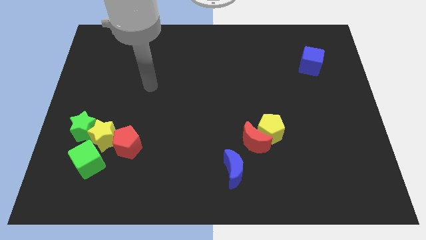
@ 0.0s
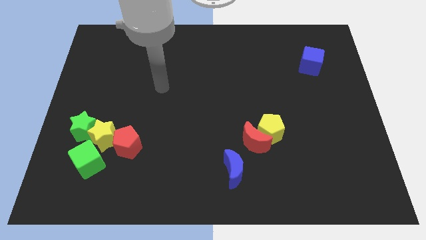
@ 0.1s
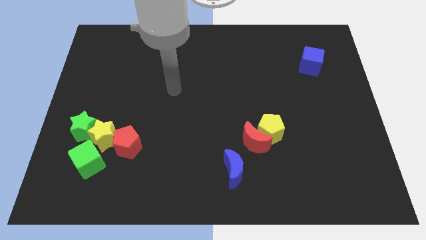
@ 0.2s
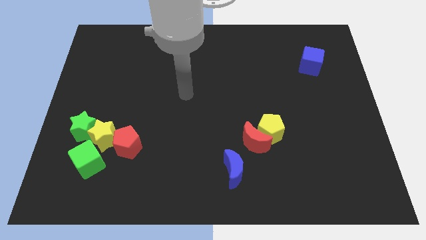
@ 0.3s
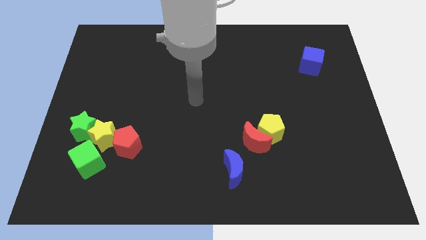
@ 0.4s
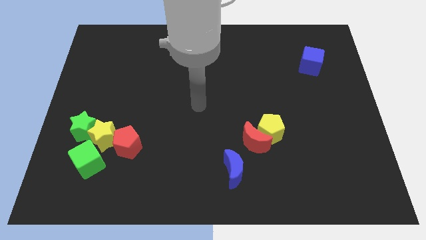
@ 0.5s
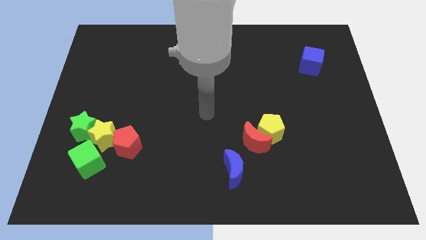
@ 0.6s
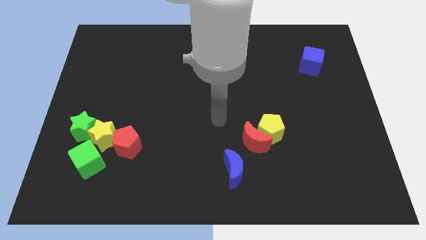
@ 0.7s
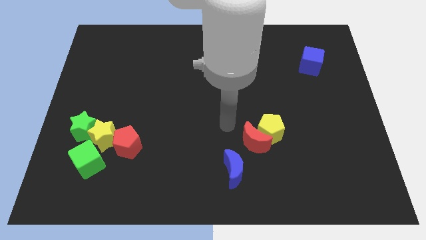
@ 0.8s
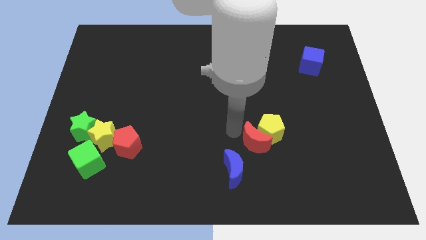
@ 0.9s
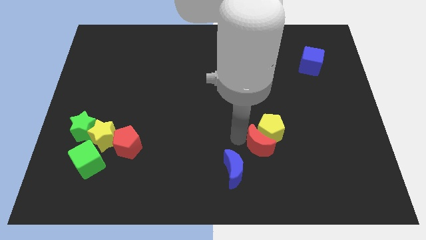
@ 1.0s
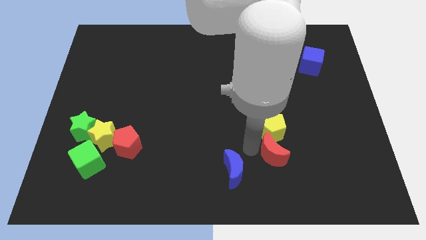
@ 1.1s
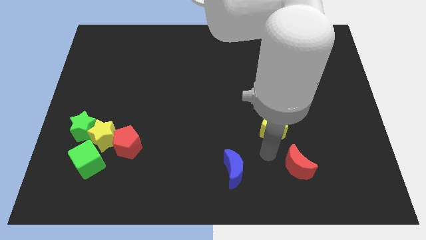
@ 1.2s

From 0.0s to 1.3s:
pull the yellow pentagon apart from the red moon

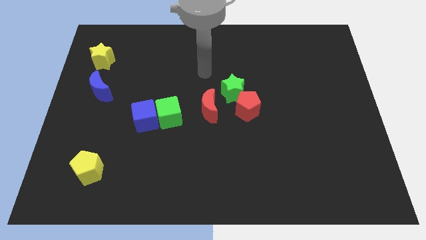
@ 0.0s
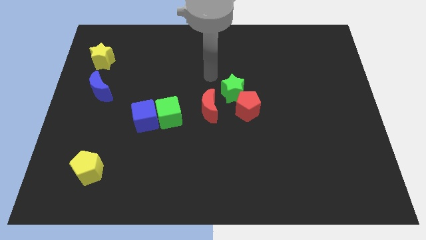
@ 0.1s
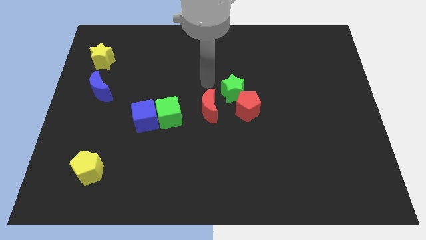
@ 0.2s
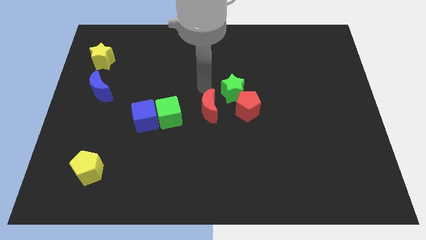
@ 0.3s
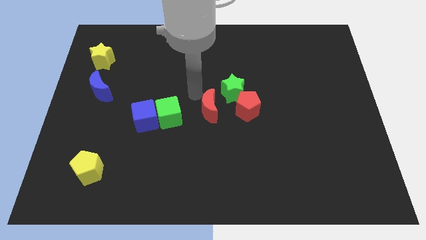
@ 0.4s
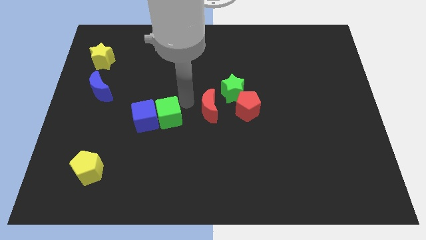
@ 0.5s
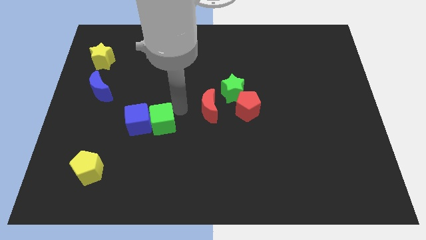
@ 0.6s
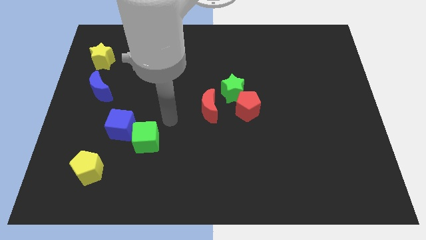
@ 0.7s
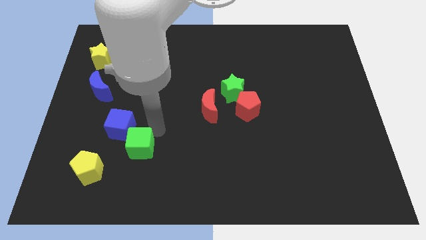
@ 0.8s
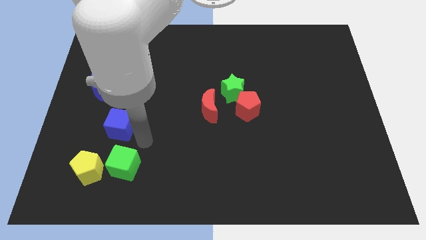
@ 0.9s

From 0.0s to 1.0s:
separate the blue cube from the green cube

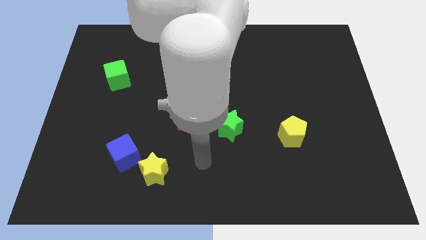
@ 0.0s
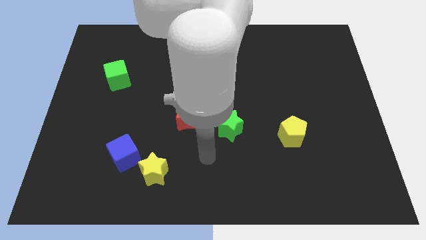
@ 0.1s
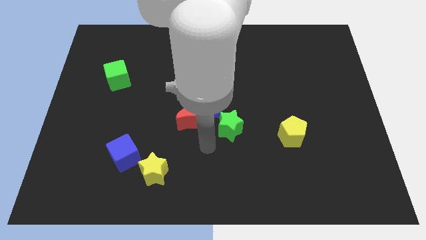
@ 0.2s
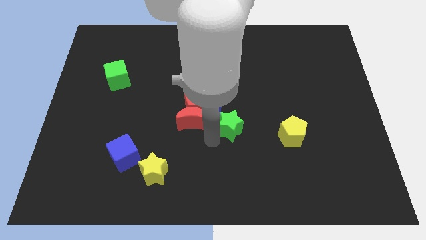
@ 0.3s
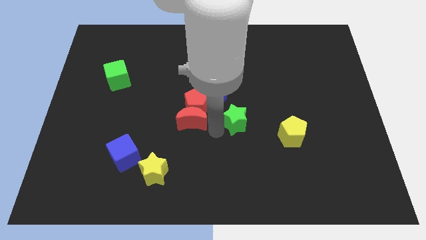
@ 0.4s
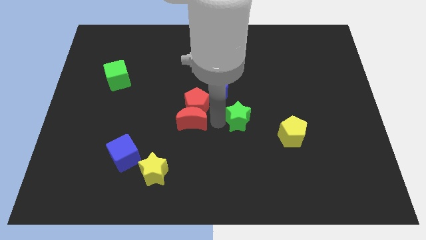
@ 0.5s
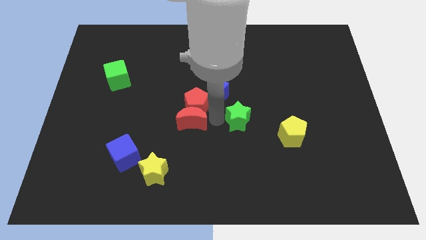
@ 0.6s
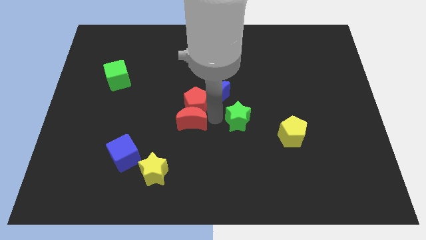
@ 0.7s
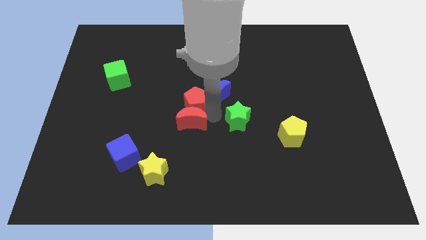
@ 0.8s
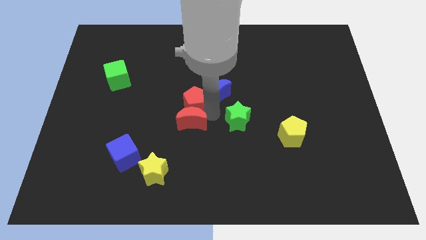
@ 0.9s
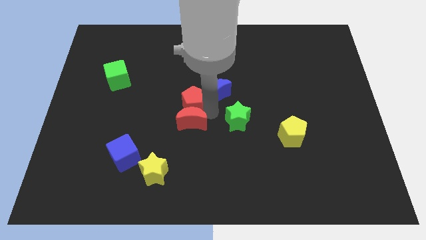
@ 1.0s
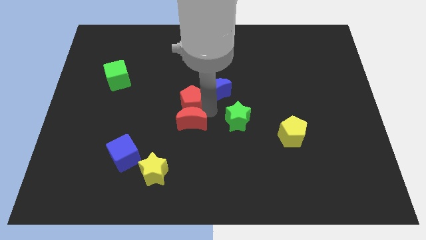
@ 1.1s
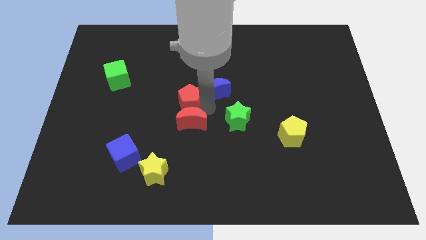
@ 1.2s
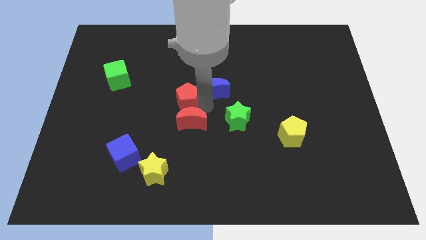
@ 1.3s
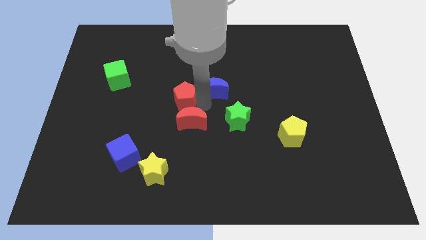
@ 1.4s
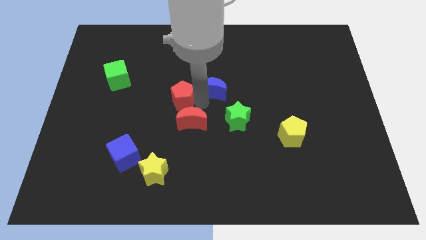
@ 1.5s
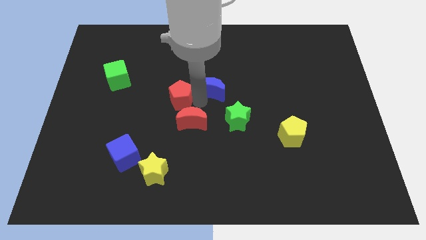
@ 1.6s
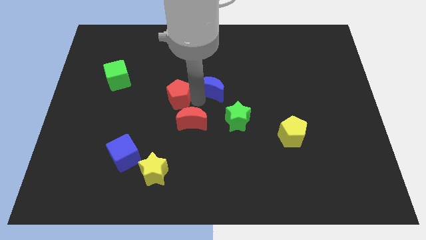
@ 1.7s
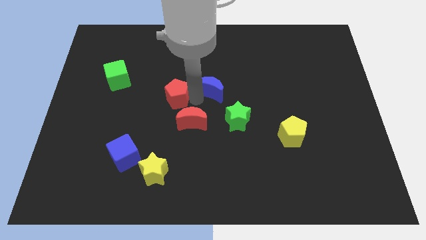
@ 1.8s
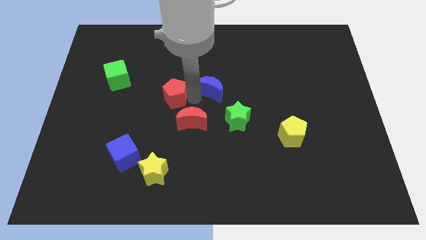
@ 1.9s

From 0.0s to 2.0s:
separate the red pentagon from the group of blocks

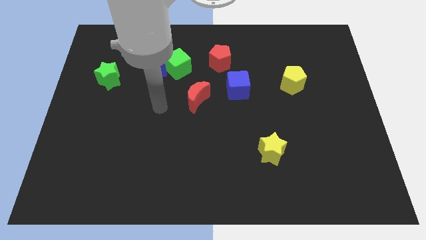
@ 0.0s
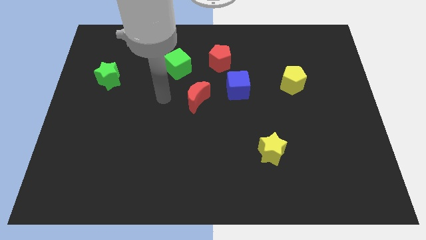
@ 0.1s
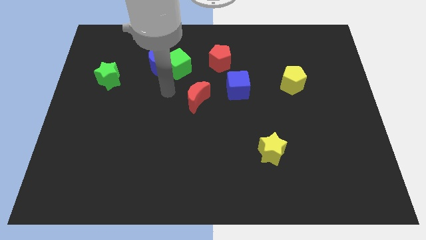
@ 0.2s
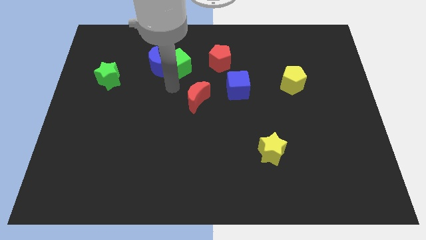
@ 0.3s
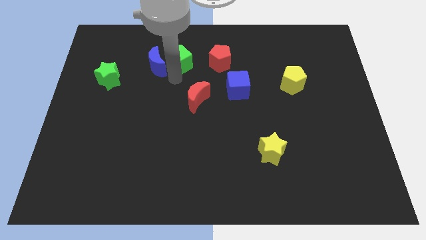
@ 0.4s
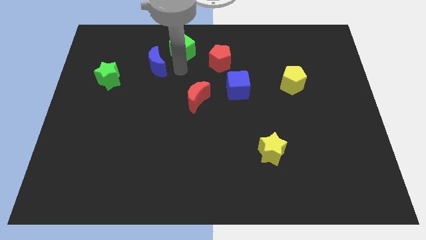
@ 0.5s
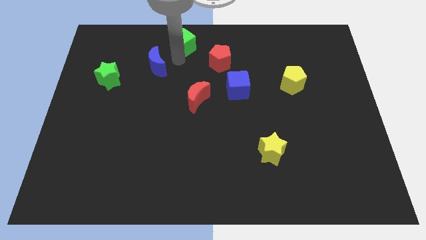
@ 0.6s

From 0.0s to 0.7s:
separate the blue moon from the green cube

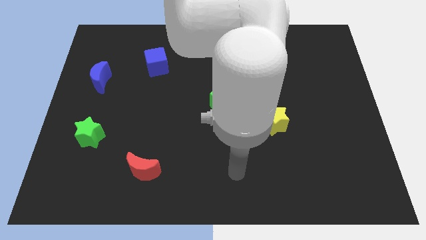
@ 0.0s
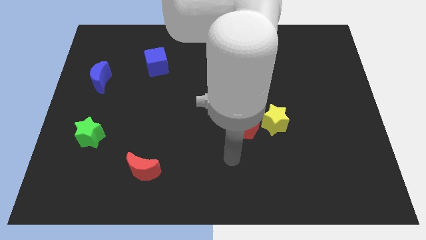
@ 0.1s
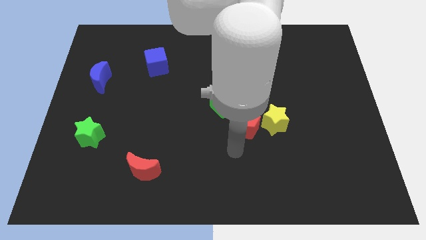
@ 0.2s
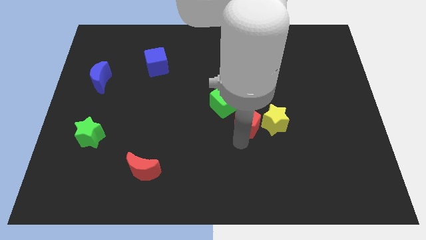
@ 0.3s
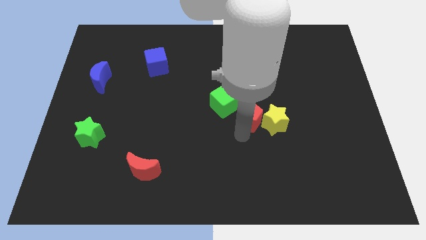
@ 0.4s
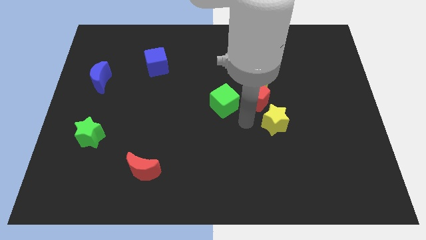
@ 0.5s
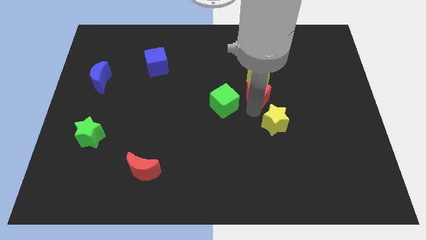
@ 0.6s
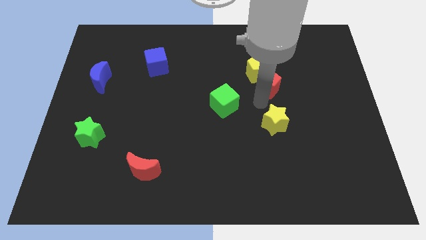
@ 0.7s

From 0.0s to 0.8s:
pull the yellow star apart from the red pentagon

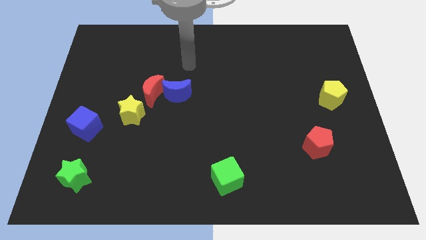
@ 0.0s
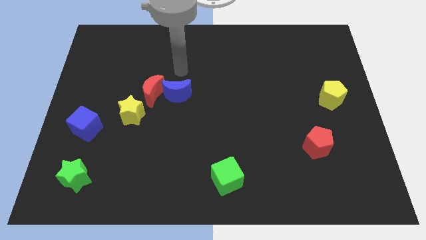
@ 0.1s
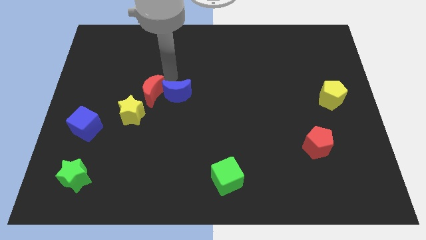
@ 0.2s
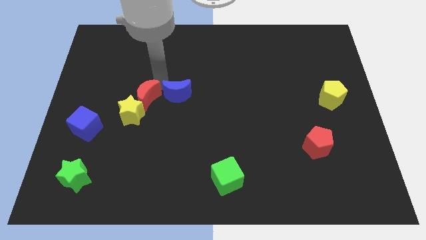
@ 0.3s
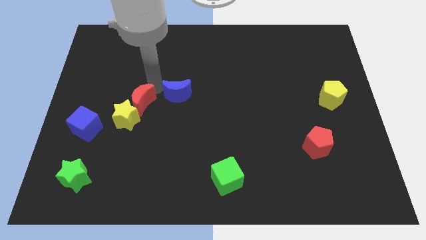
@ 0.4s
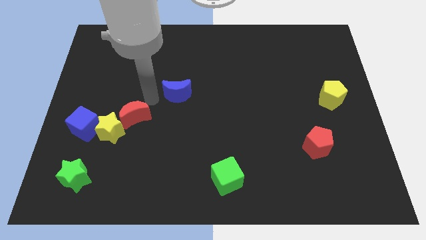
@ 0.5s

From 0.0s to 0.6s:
move the blue moon away from the red moon

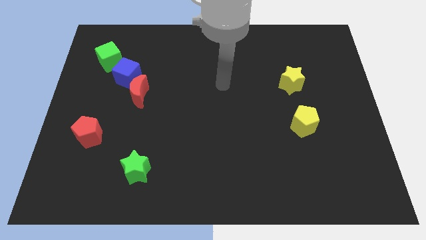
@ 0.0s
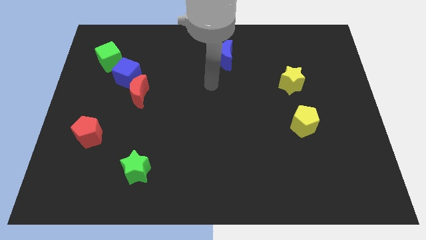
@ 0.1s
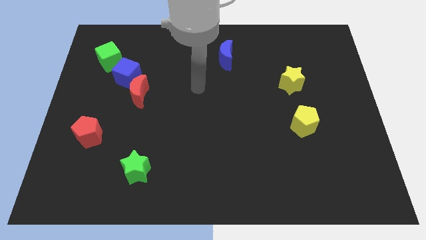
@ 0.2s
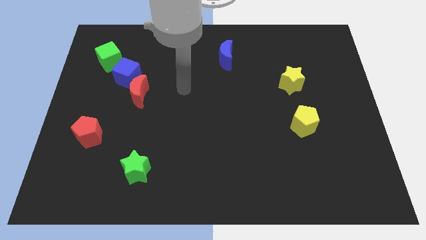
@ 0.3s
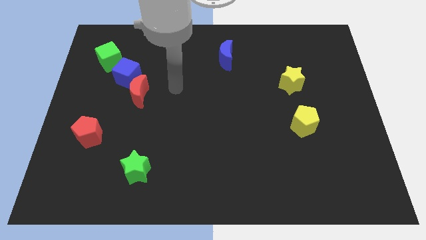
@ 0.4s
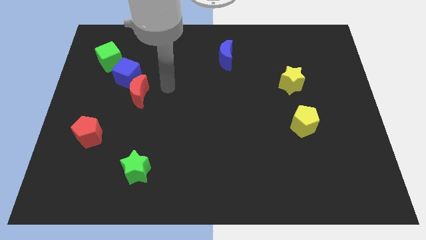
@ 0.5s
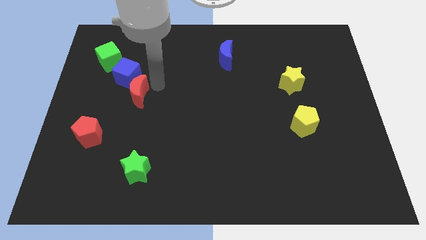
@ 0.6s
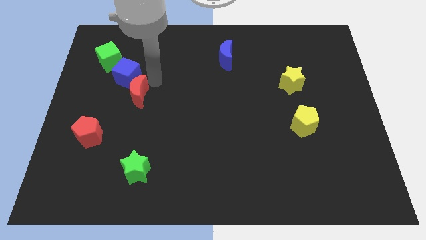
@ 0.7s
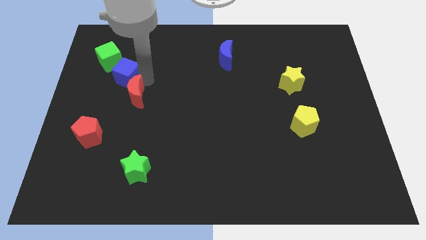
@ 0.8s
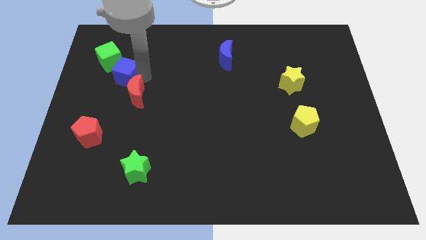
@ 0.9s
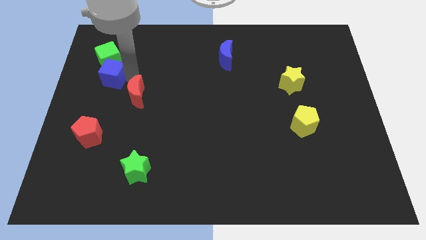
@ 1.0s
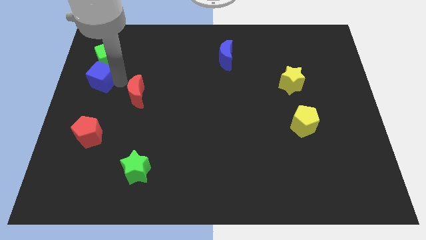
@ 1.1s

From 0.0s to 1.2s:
separate the red moon from the blue cube

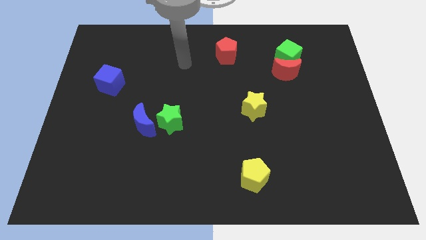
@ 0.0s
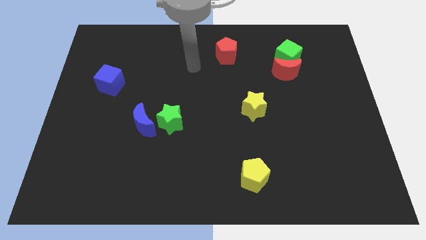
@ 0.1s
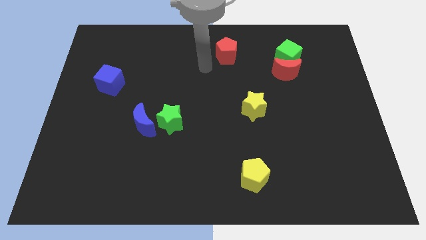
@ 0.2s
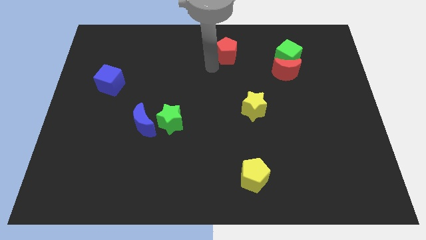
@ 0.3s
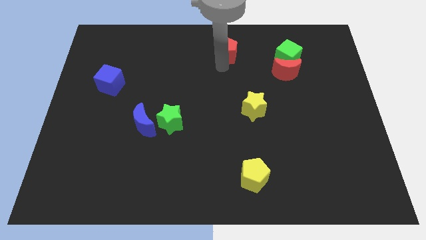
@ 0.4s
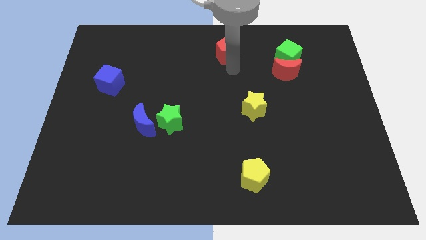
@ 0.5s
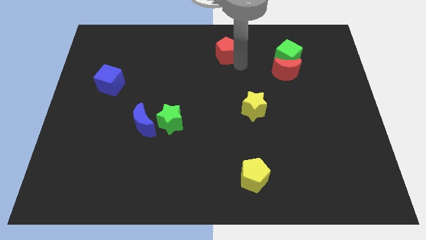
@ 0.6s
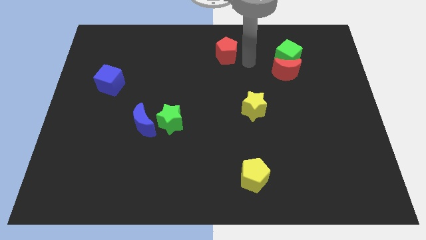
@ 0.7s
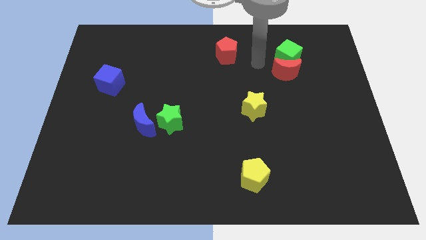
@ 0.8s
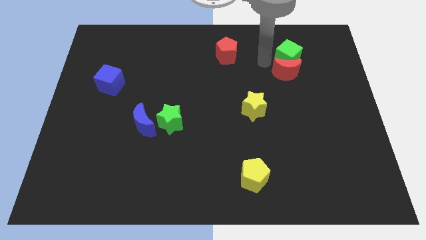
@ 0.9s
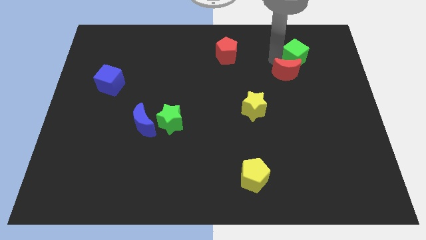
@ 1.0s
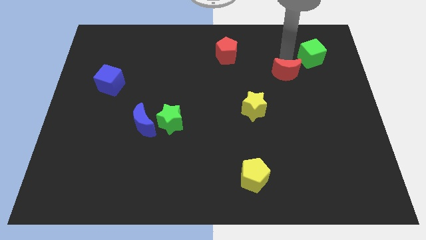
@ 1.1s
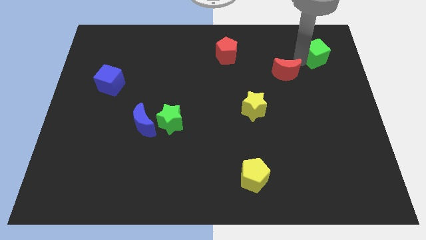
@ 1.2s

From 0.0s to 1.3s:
pull the red moon apart from the green cube

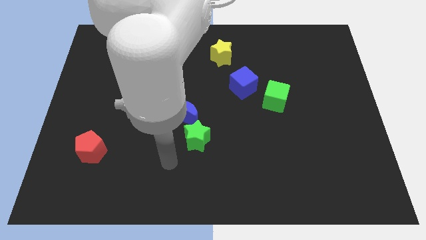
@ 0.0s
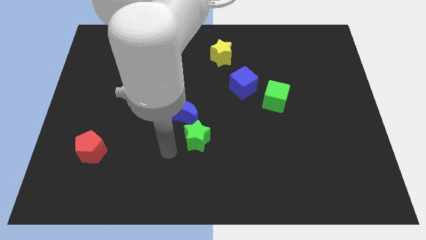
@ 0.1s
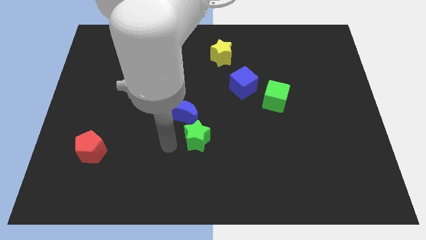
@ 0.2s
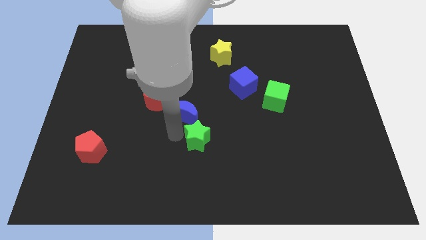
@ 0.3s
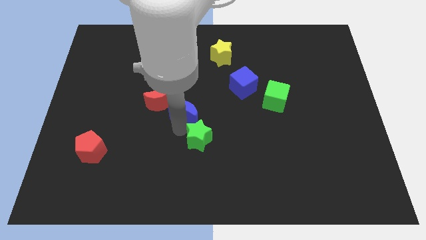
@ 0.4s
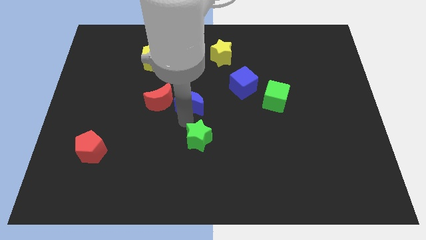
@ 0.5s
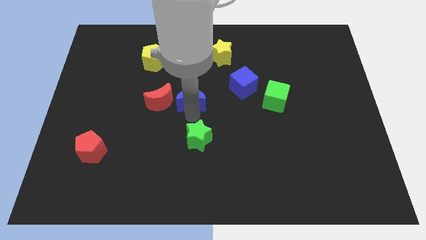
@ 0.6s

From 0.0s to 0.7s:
pull the green star apart from the blue moon
